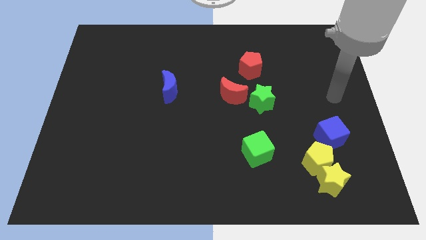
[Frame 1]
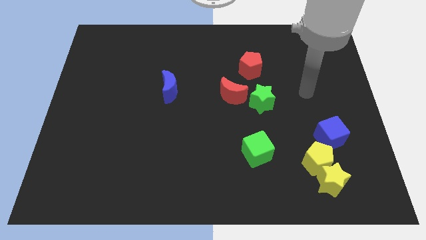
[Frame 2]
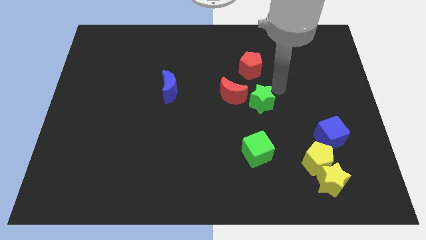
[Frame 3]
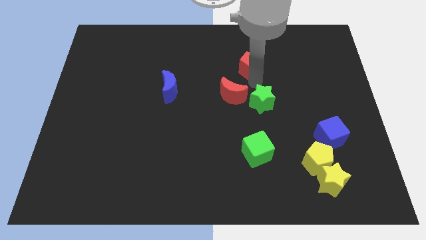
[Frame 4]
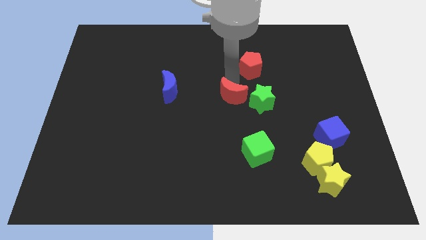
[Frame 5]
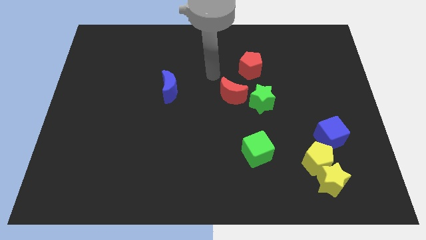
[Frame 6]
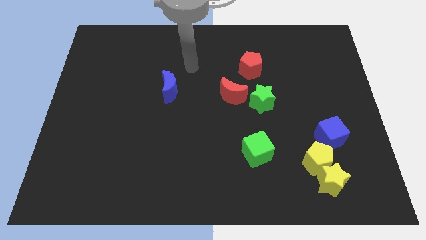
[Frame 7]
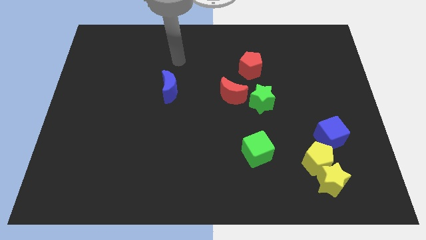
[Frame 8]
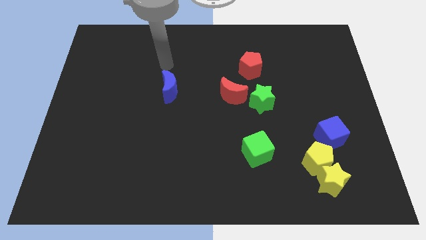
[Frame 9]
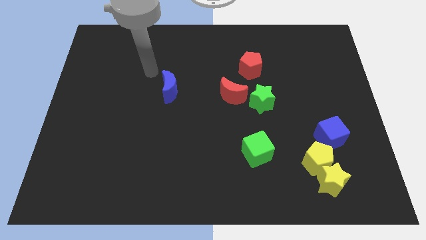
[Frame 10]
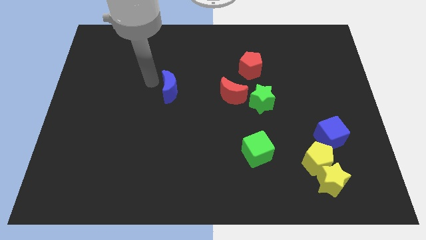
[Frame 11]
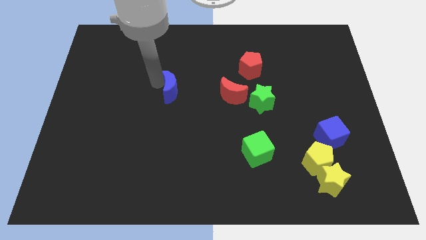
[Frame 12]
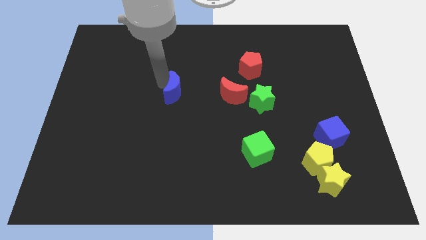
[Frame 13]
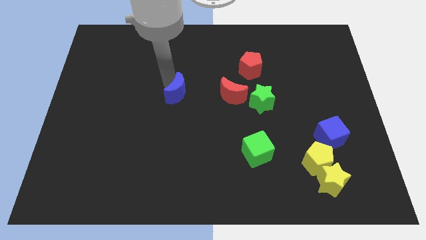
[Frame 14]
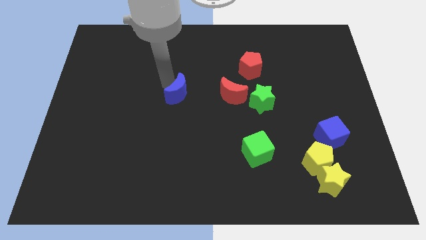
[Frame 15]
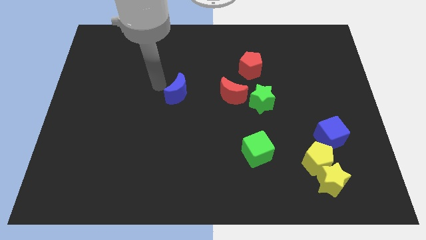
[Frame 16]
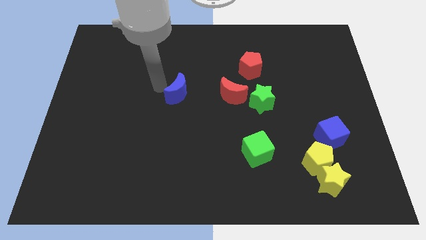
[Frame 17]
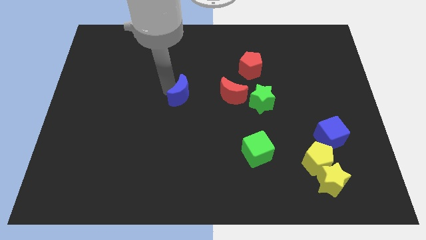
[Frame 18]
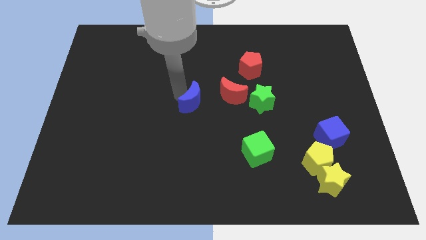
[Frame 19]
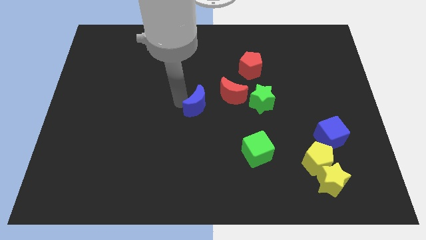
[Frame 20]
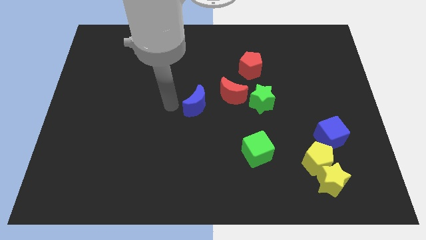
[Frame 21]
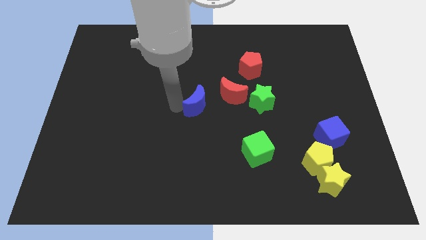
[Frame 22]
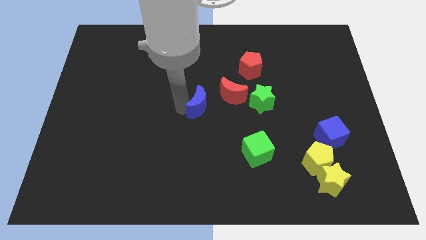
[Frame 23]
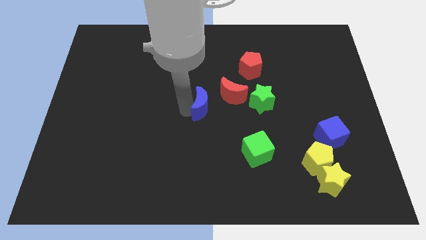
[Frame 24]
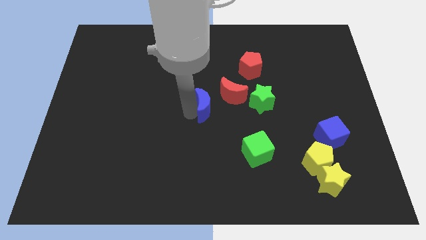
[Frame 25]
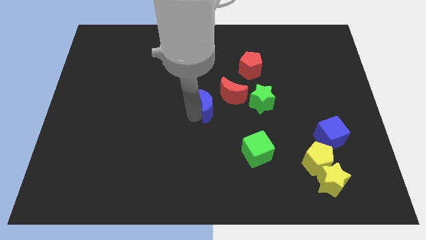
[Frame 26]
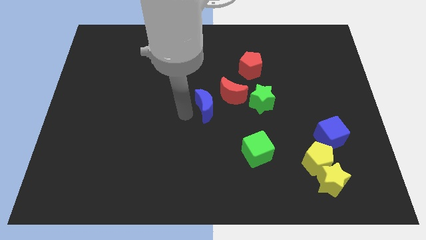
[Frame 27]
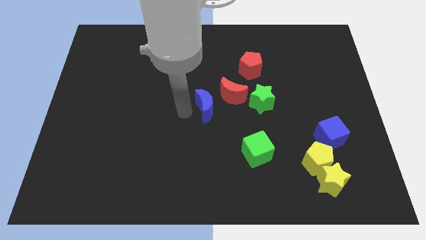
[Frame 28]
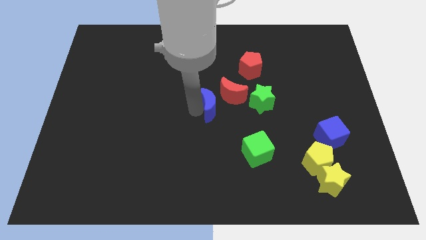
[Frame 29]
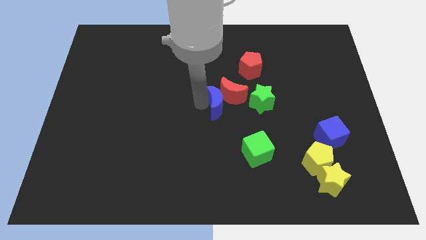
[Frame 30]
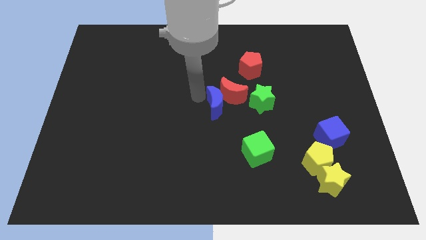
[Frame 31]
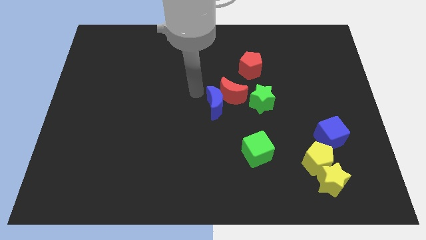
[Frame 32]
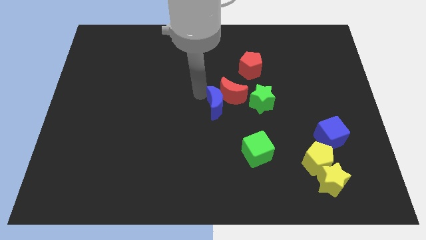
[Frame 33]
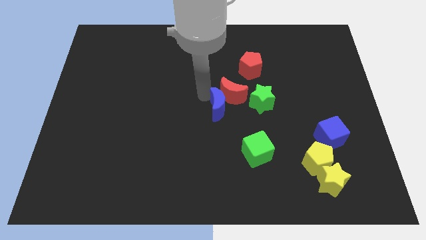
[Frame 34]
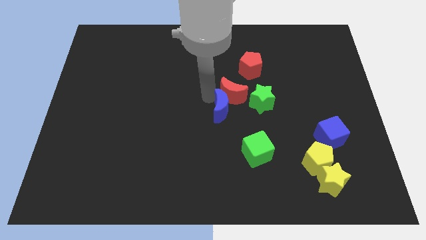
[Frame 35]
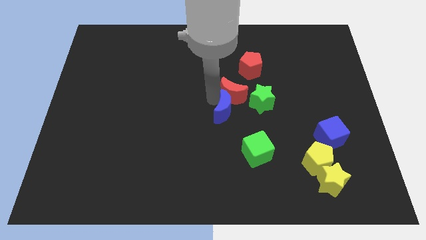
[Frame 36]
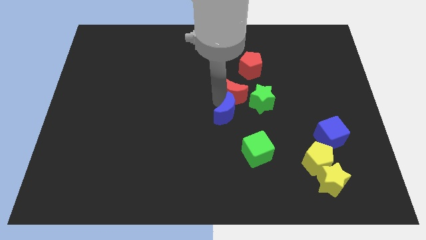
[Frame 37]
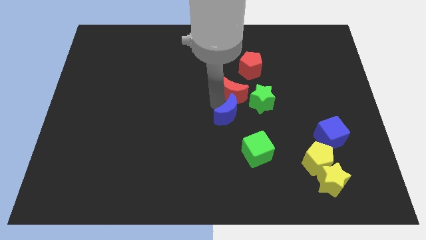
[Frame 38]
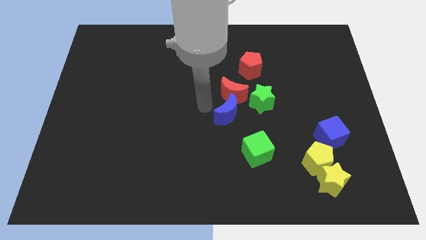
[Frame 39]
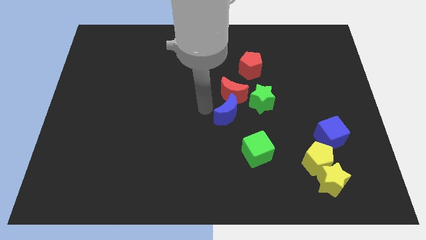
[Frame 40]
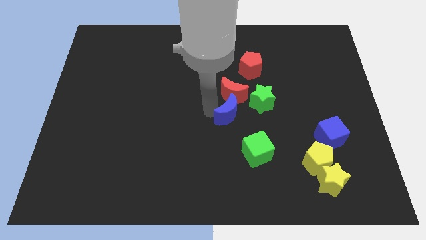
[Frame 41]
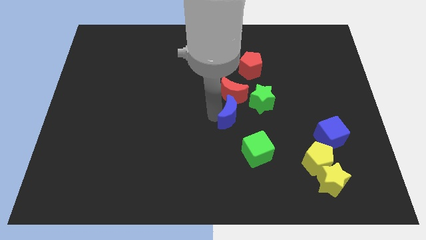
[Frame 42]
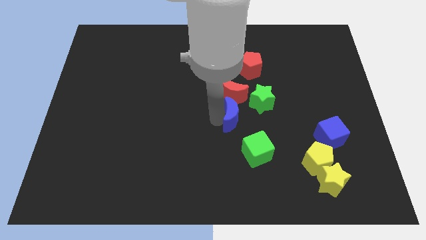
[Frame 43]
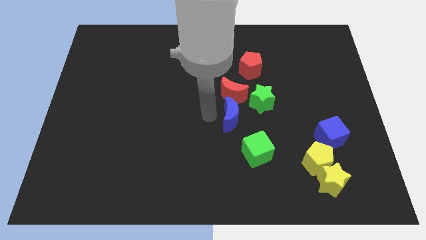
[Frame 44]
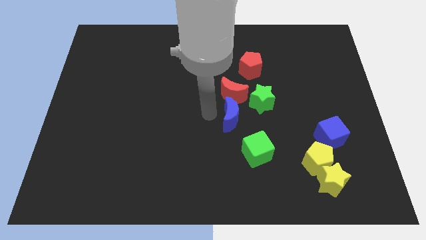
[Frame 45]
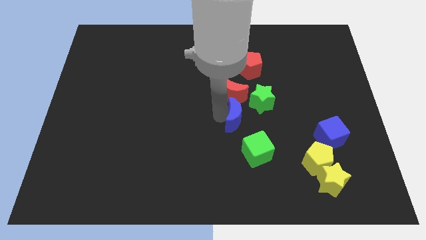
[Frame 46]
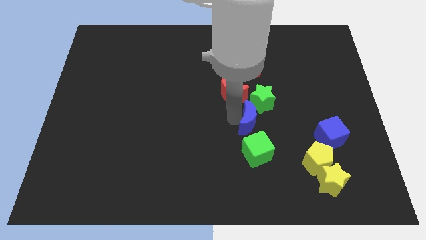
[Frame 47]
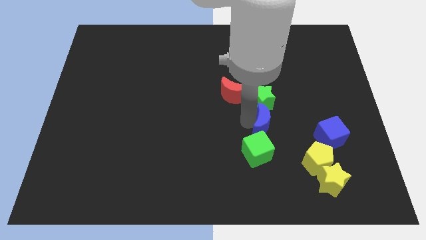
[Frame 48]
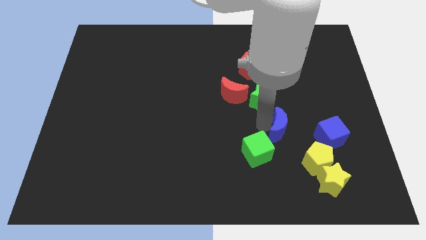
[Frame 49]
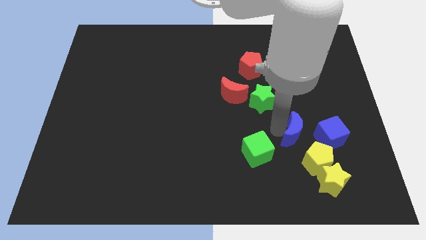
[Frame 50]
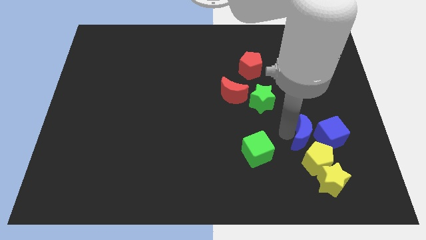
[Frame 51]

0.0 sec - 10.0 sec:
push the blue moon close to the blue cube

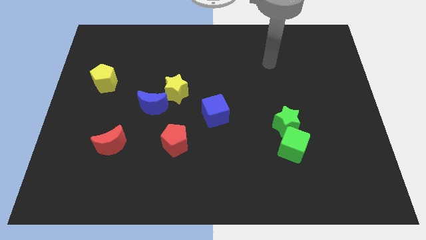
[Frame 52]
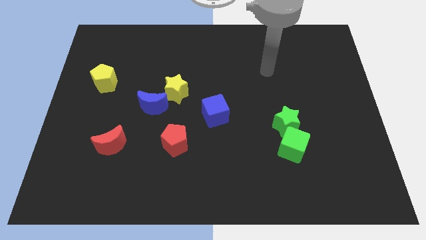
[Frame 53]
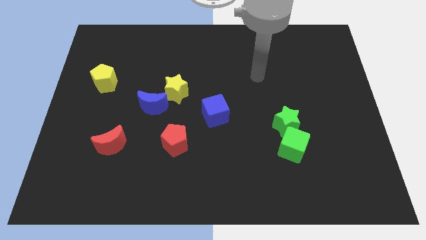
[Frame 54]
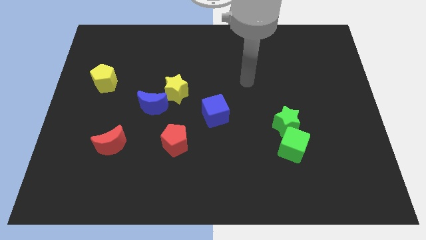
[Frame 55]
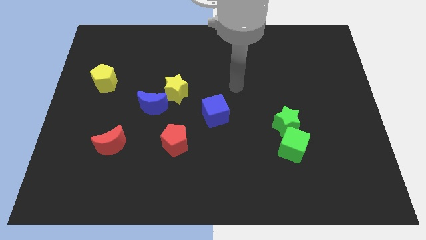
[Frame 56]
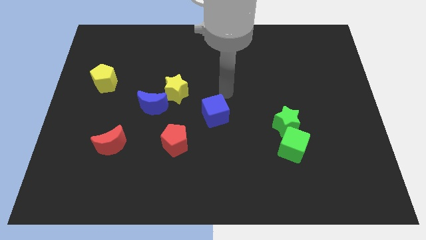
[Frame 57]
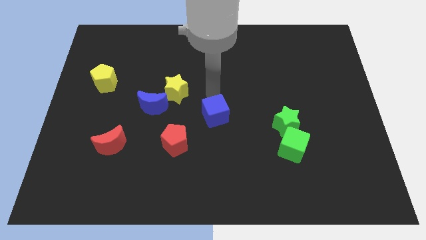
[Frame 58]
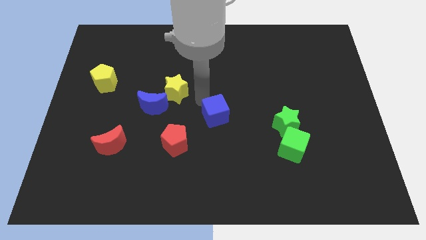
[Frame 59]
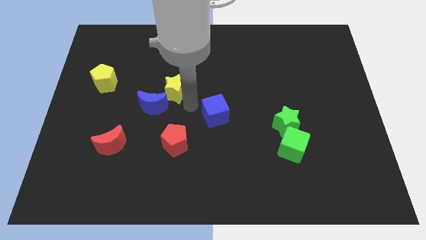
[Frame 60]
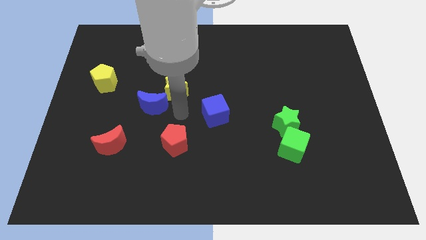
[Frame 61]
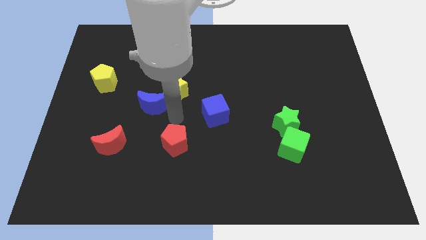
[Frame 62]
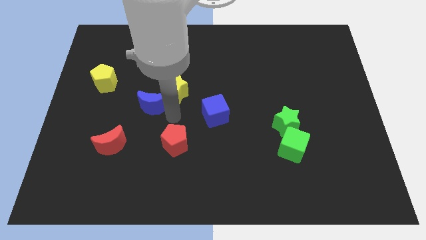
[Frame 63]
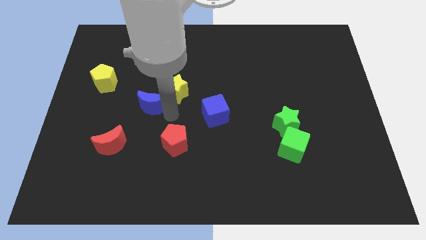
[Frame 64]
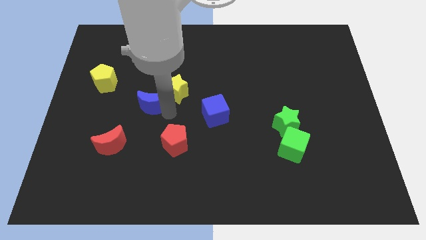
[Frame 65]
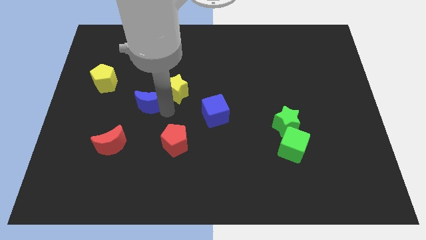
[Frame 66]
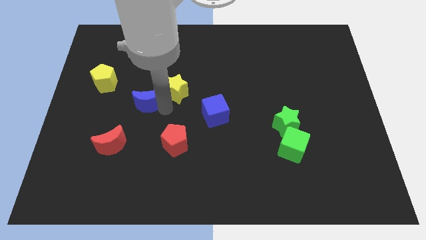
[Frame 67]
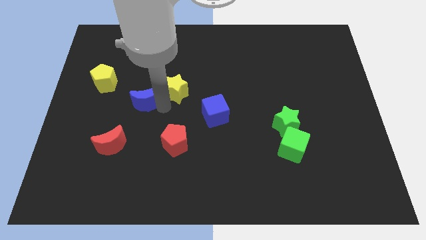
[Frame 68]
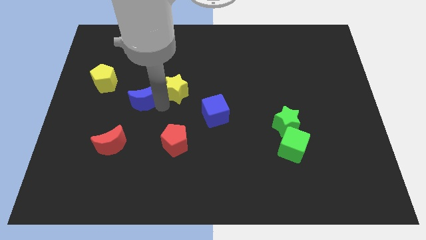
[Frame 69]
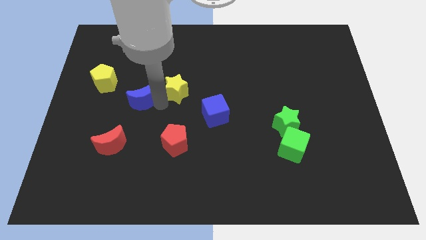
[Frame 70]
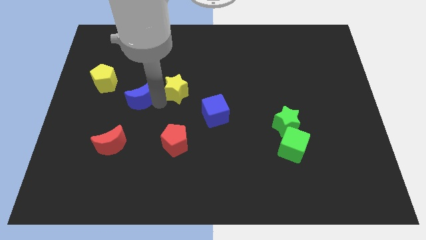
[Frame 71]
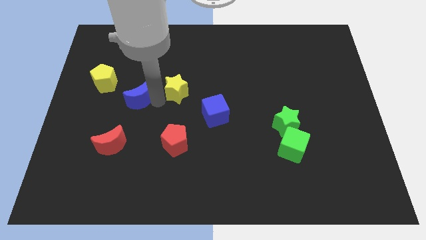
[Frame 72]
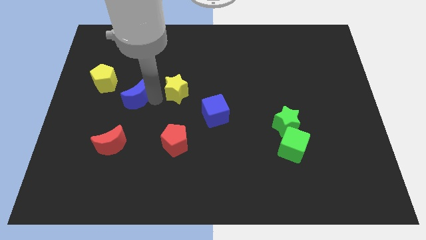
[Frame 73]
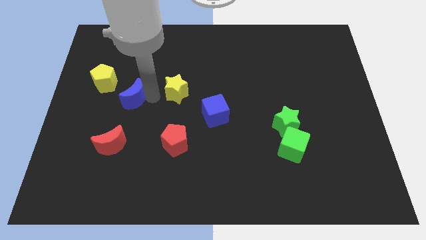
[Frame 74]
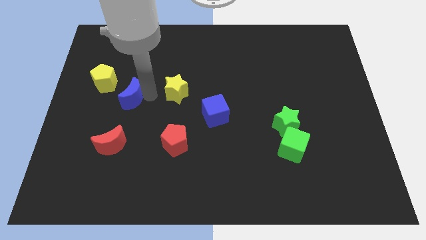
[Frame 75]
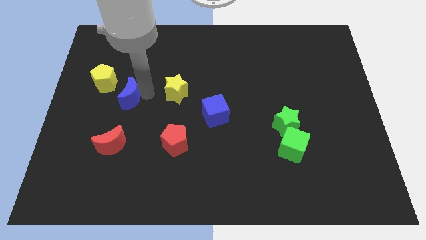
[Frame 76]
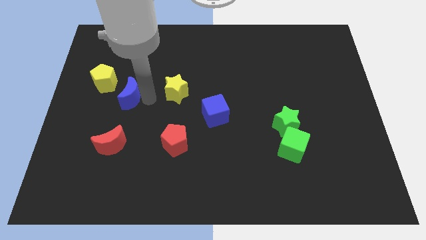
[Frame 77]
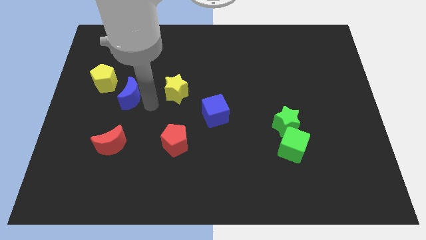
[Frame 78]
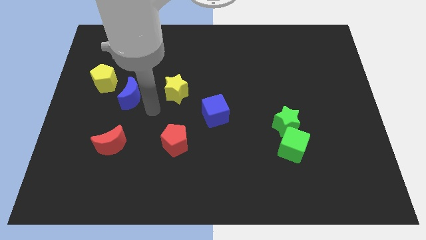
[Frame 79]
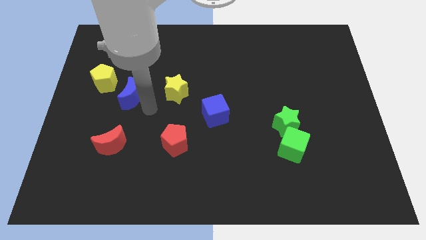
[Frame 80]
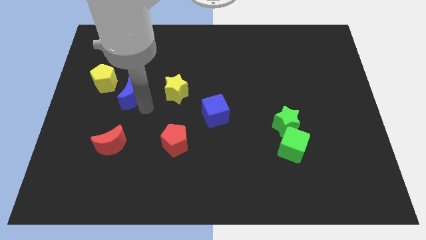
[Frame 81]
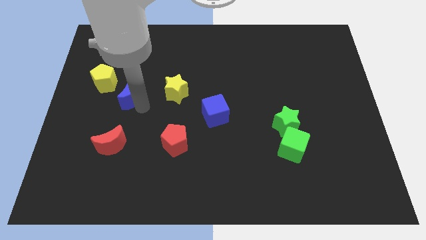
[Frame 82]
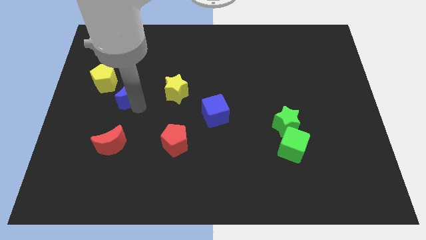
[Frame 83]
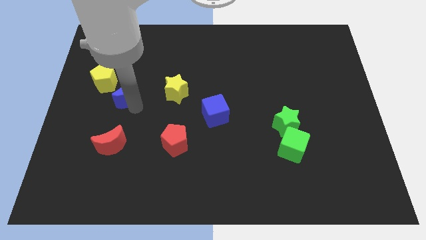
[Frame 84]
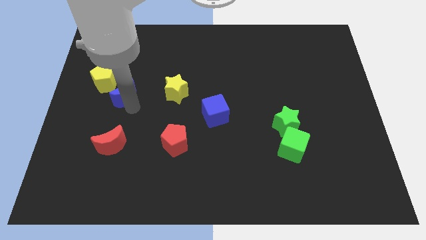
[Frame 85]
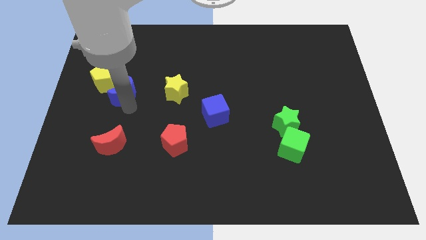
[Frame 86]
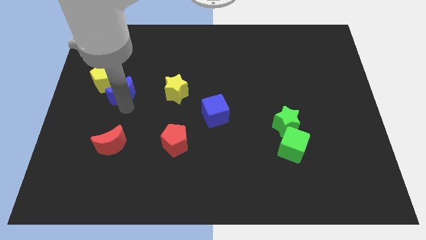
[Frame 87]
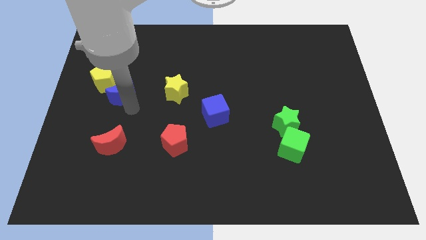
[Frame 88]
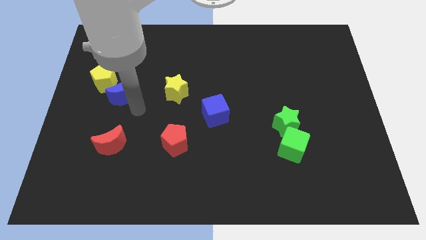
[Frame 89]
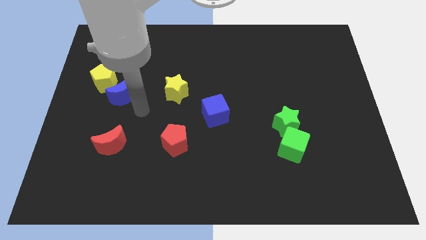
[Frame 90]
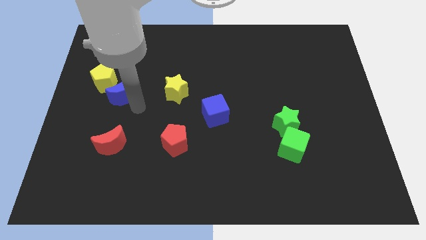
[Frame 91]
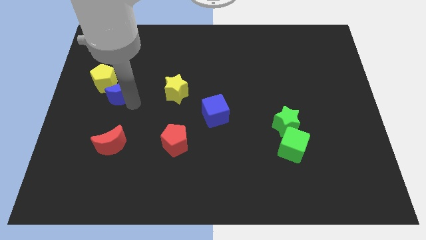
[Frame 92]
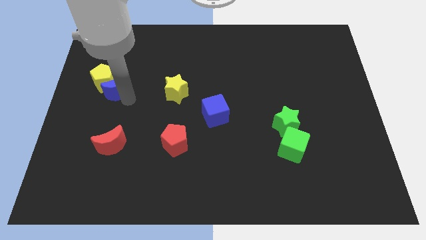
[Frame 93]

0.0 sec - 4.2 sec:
push the blue moon close to the yellow pentagon
